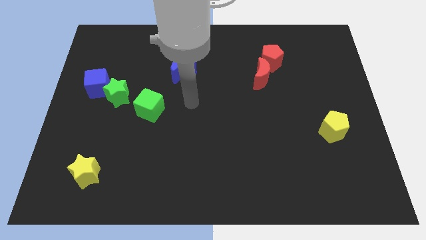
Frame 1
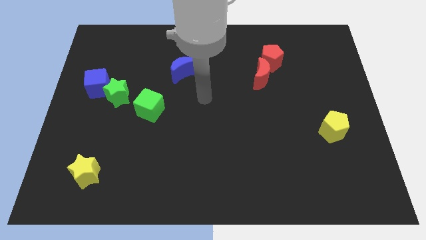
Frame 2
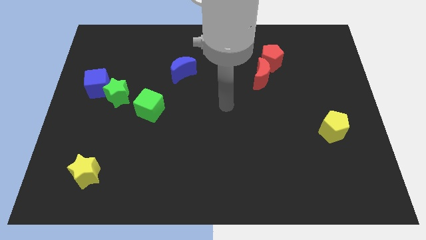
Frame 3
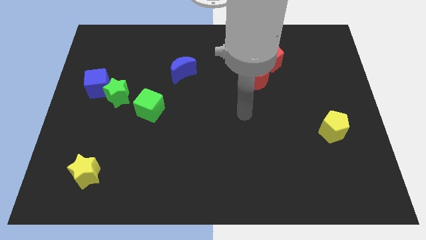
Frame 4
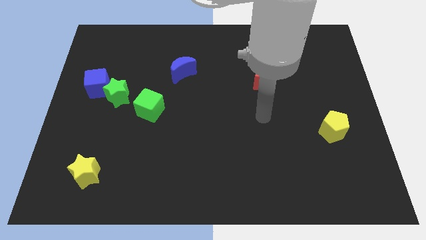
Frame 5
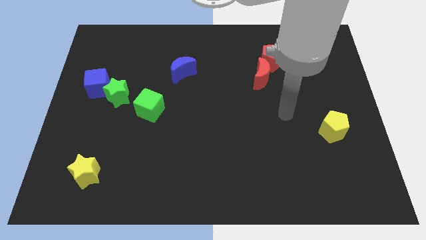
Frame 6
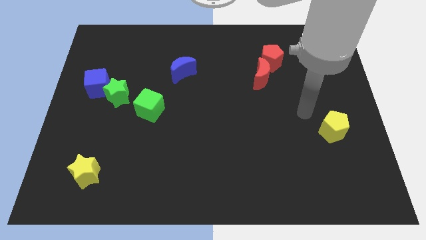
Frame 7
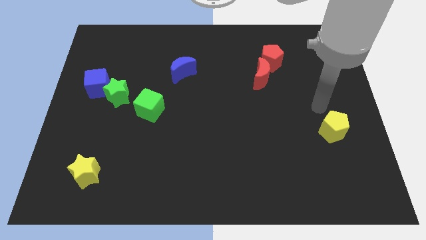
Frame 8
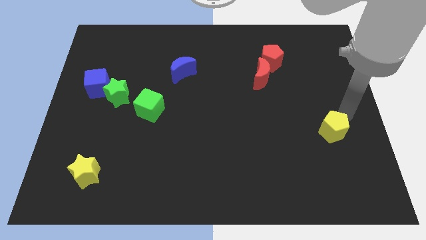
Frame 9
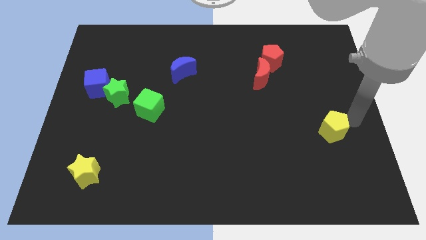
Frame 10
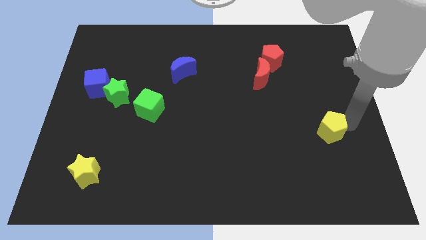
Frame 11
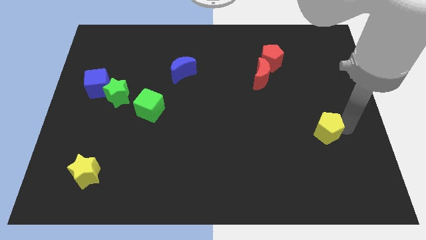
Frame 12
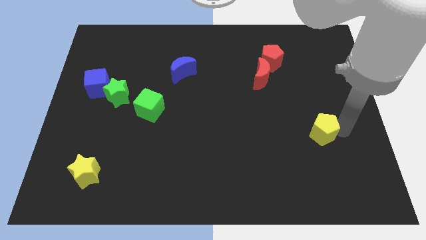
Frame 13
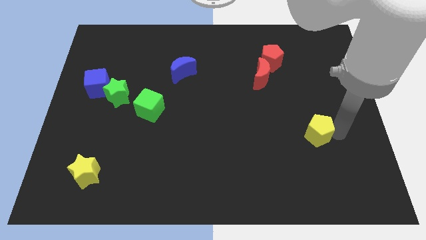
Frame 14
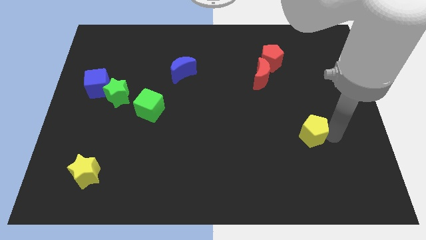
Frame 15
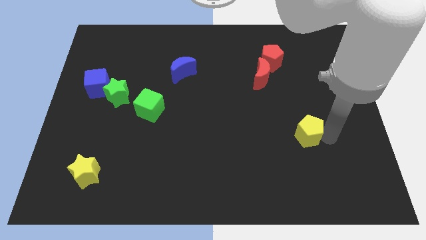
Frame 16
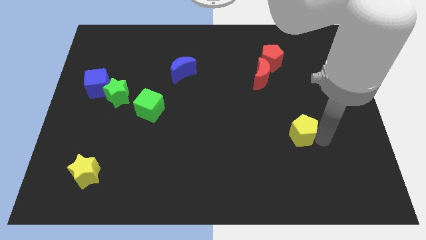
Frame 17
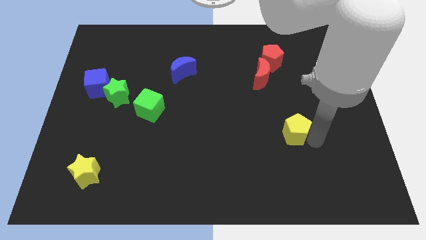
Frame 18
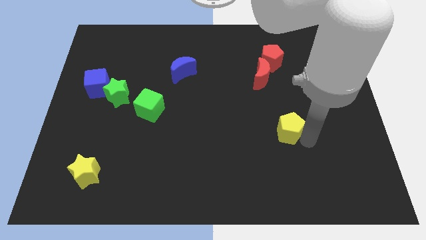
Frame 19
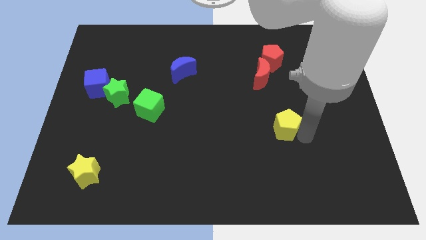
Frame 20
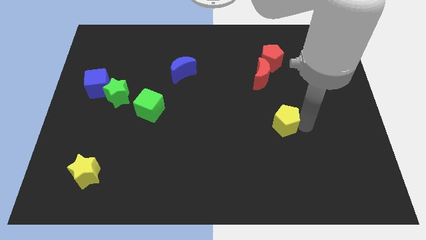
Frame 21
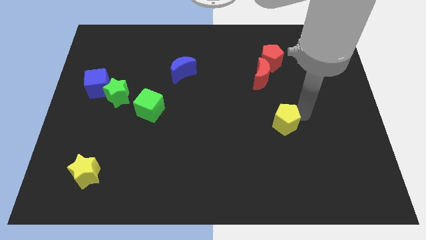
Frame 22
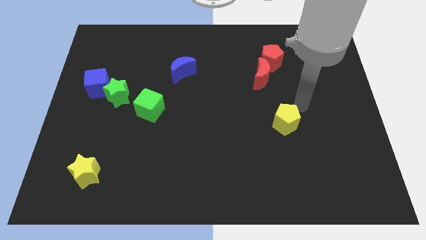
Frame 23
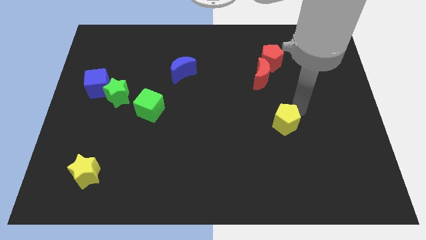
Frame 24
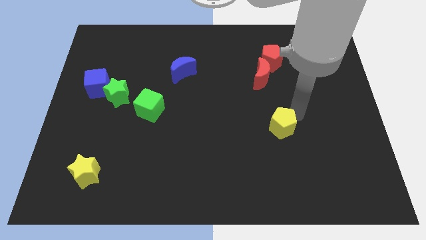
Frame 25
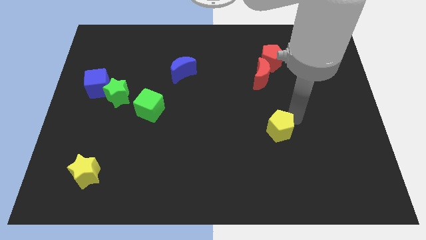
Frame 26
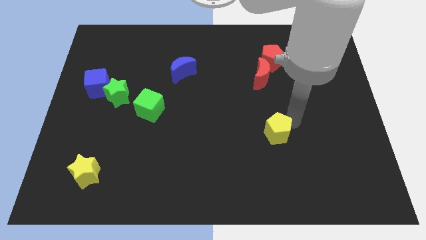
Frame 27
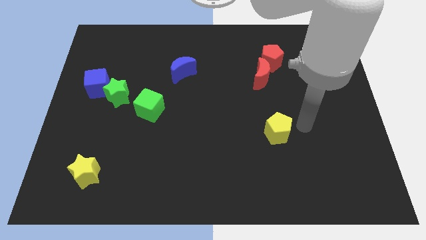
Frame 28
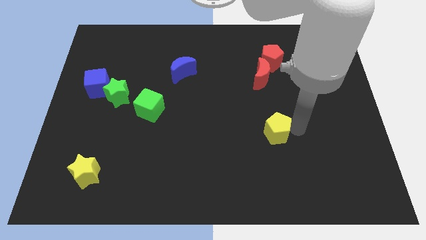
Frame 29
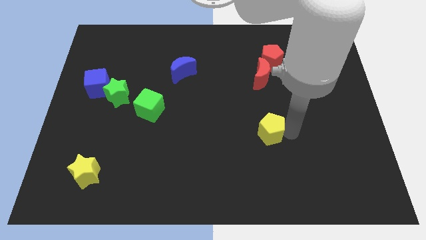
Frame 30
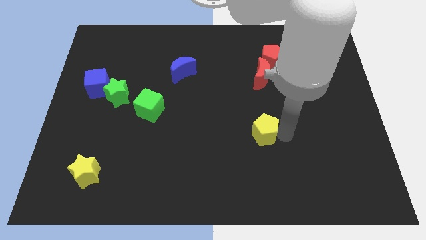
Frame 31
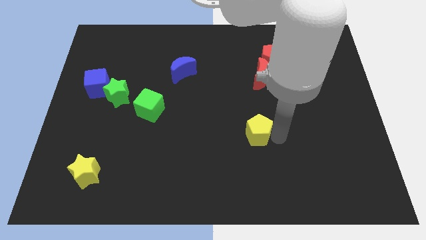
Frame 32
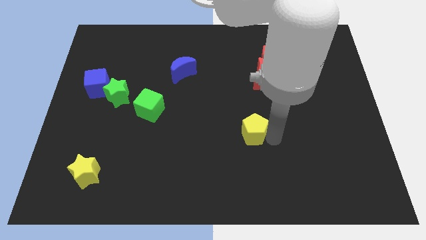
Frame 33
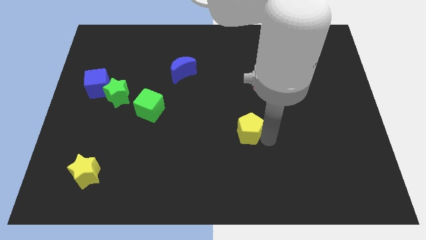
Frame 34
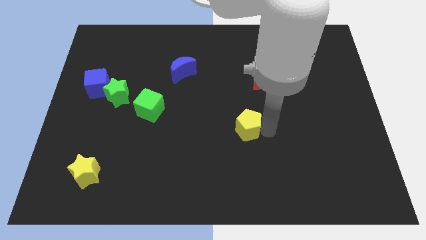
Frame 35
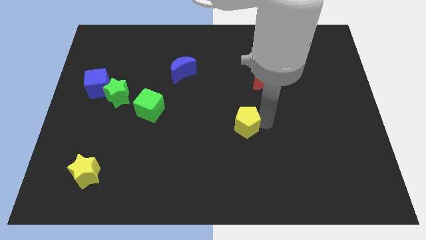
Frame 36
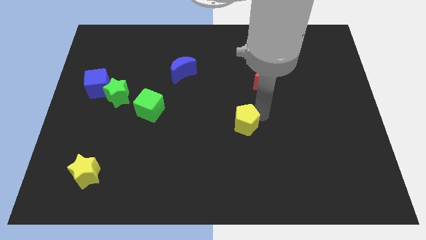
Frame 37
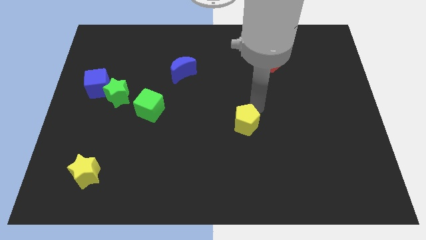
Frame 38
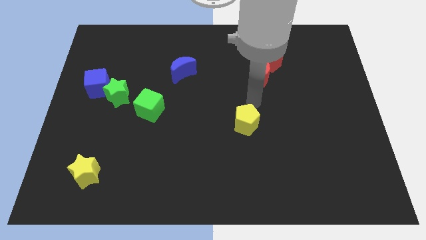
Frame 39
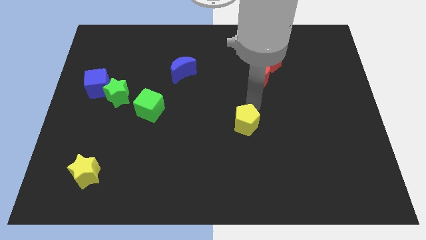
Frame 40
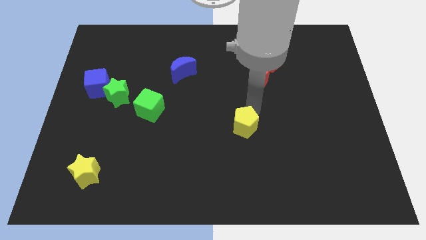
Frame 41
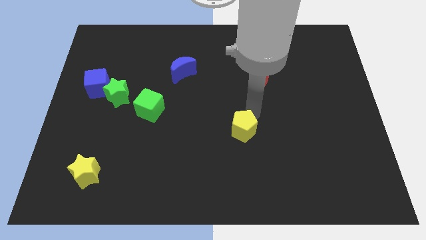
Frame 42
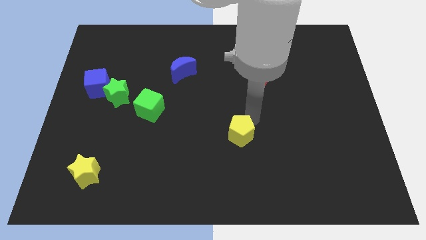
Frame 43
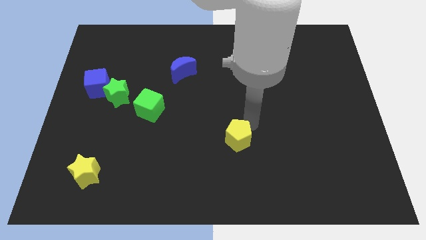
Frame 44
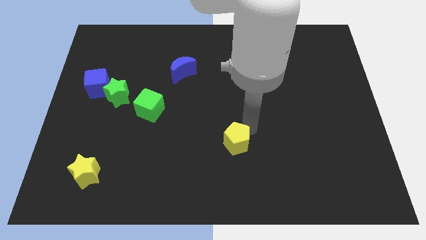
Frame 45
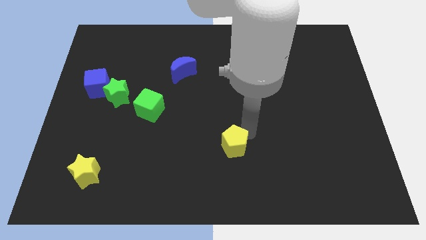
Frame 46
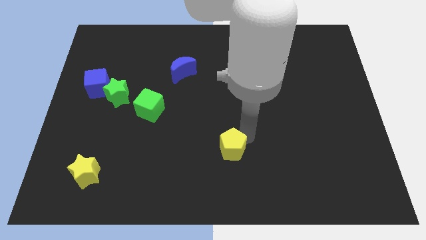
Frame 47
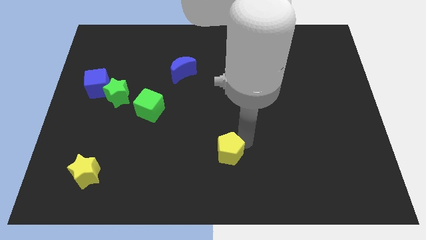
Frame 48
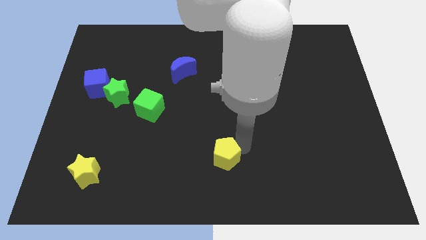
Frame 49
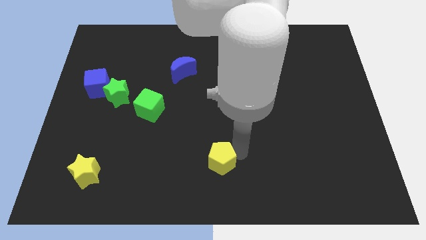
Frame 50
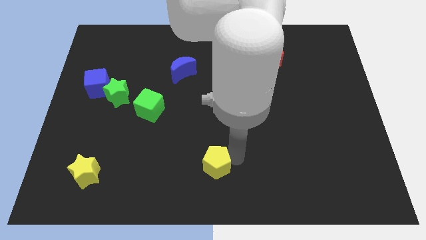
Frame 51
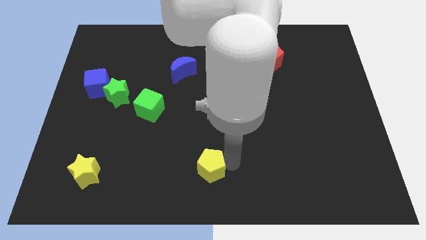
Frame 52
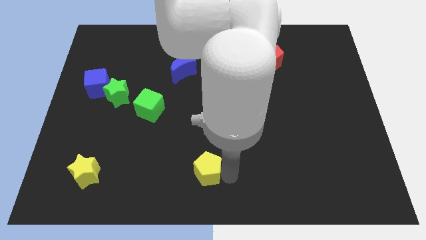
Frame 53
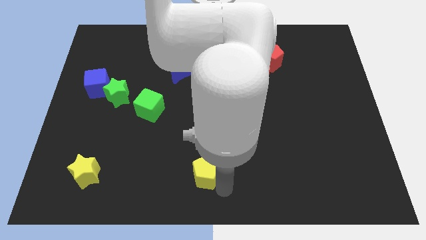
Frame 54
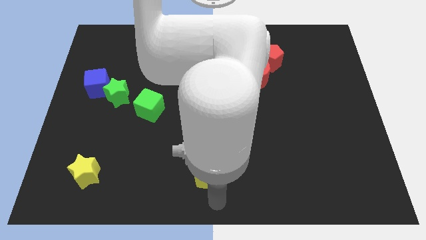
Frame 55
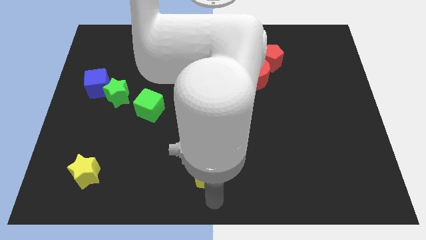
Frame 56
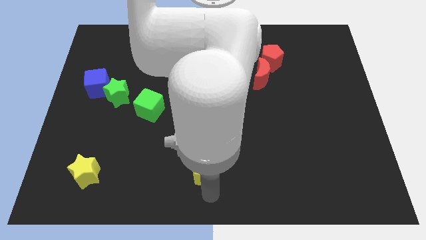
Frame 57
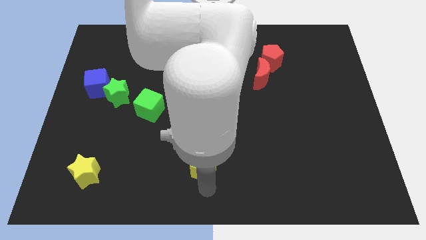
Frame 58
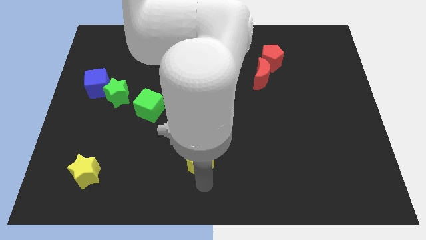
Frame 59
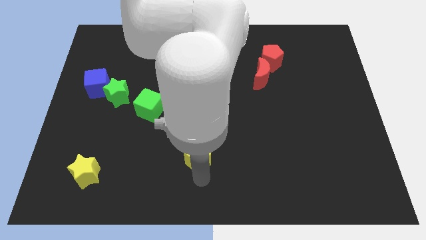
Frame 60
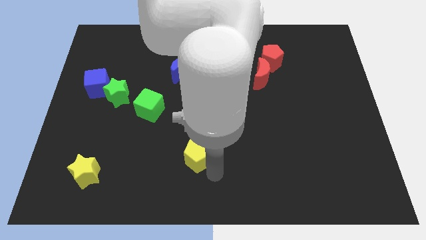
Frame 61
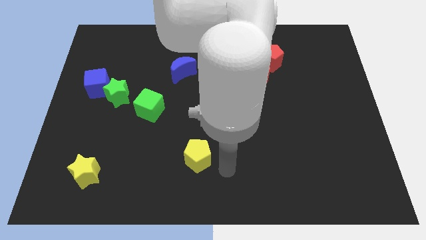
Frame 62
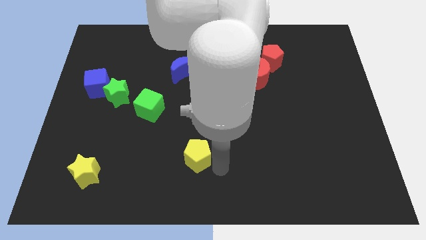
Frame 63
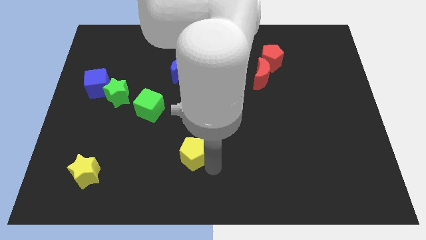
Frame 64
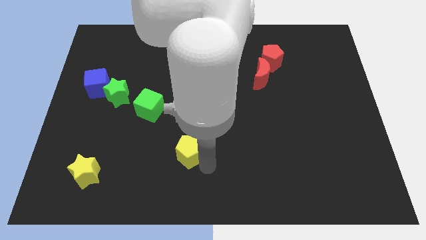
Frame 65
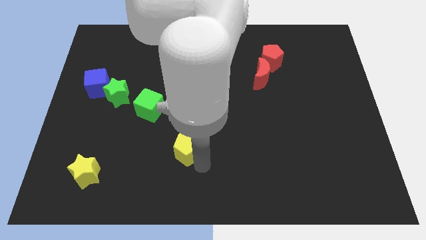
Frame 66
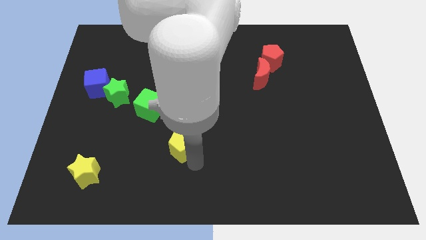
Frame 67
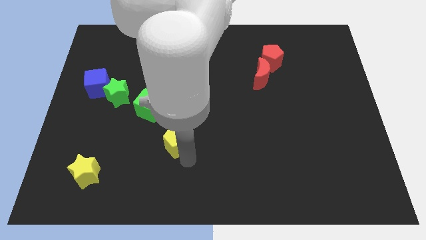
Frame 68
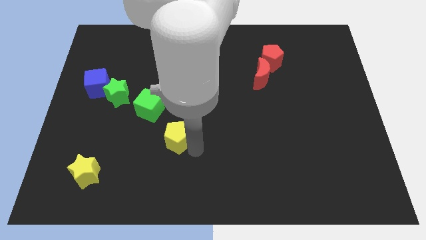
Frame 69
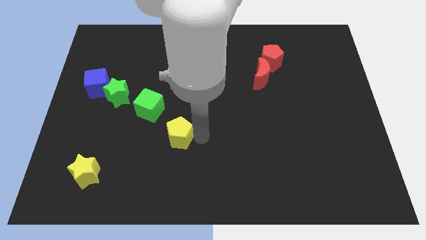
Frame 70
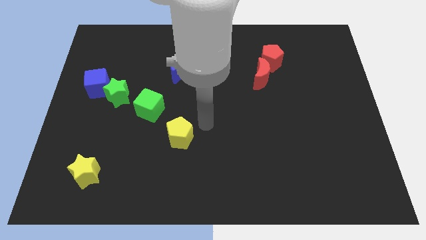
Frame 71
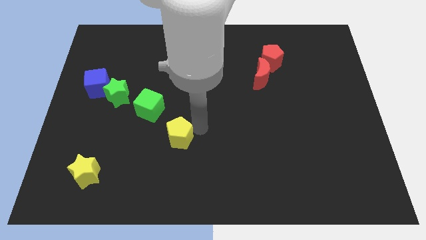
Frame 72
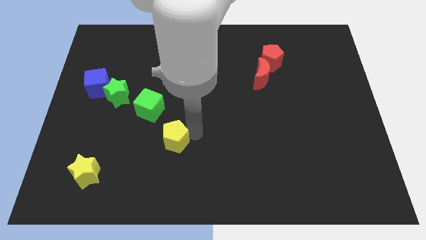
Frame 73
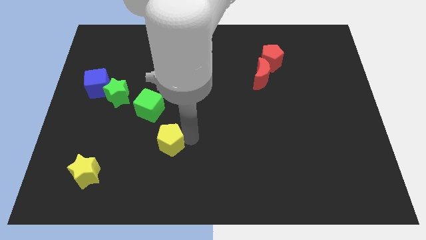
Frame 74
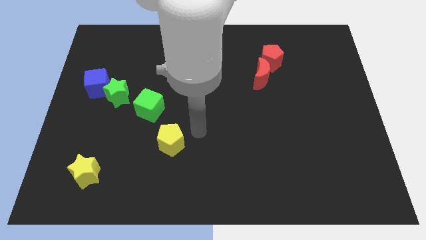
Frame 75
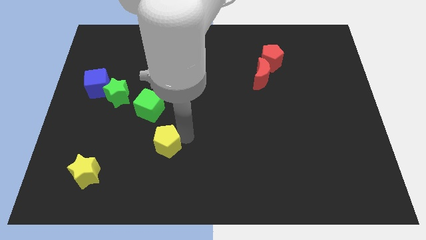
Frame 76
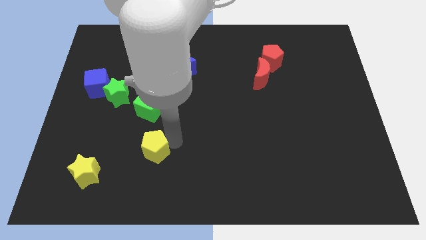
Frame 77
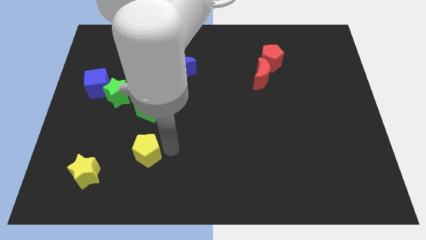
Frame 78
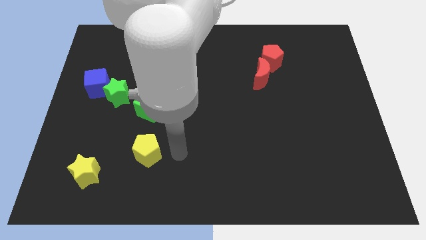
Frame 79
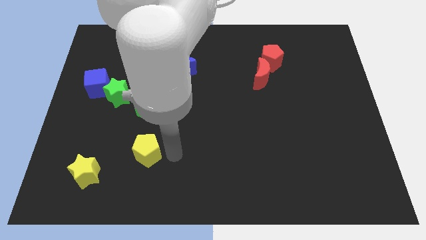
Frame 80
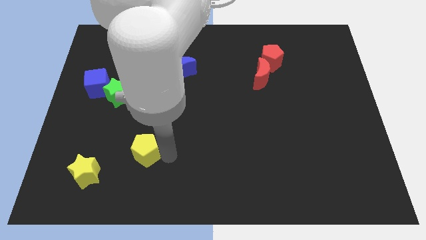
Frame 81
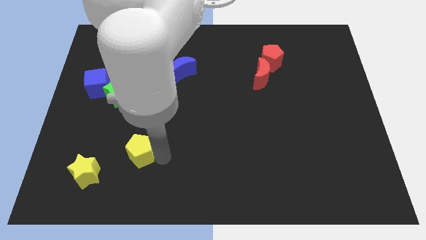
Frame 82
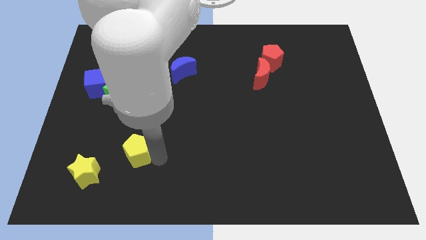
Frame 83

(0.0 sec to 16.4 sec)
push the yellow pentagon to the top right of the yellow star
